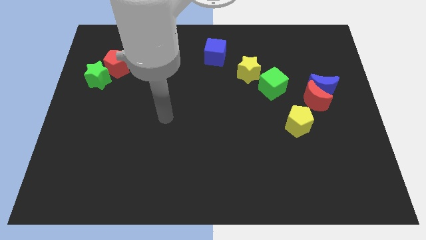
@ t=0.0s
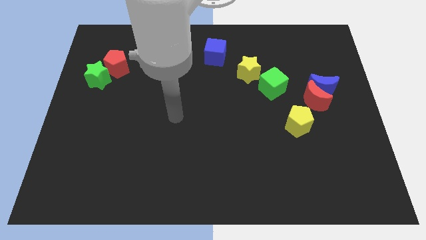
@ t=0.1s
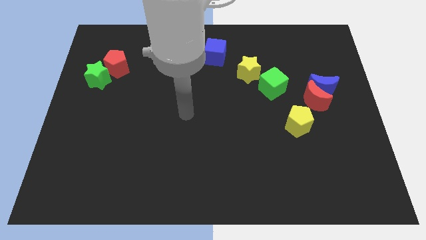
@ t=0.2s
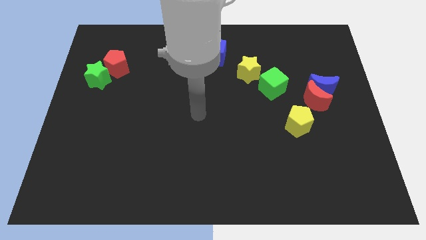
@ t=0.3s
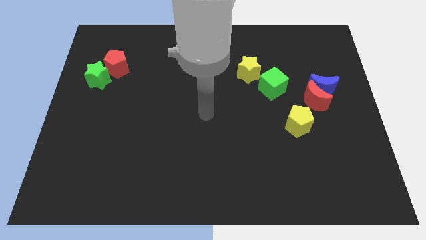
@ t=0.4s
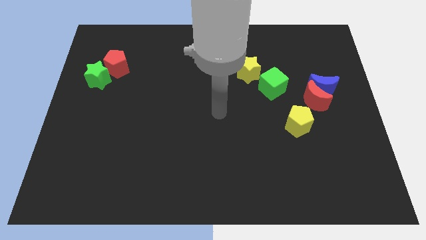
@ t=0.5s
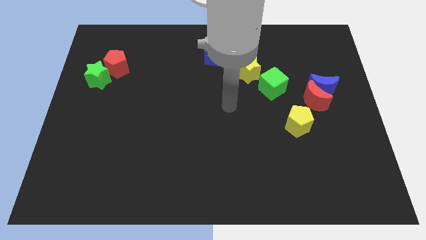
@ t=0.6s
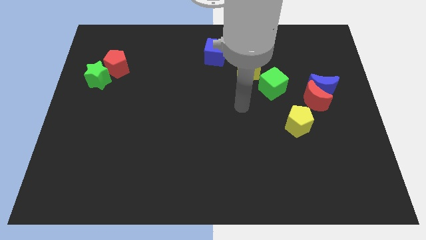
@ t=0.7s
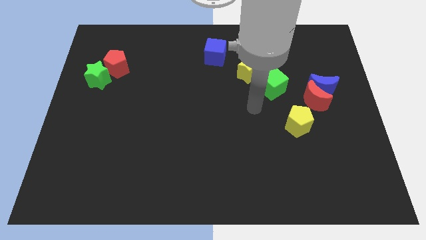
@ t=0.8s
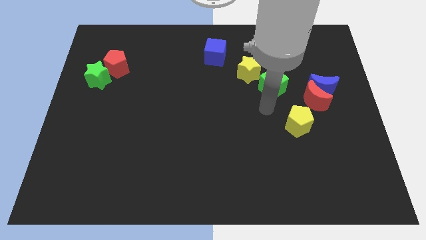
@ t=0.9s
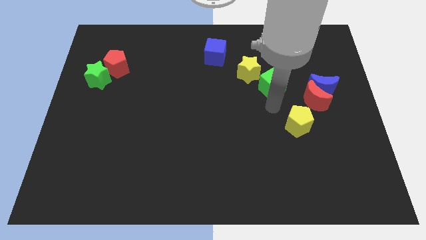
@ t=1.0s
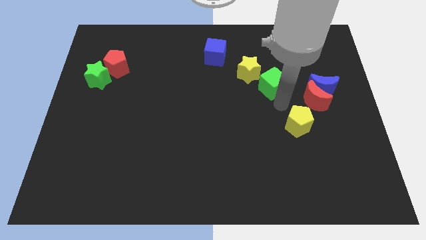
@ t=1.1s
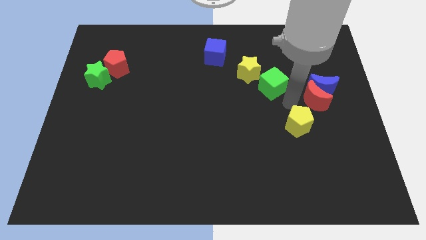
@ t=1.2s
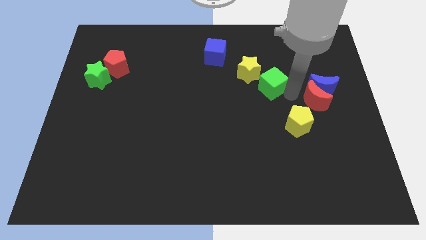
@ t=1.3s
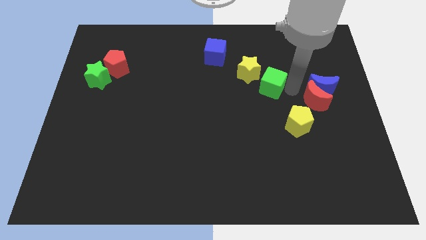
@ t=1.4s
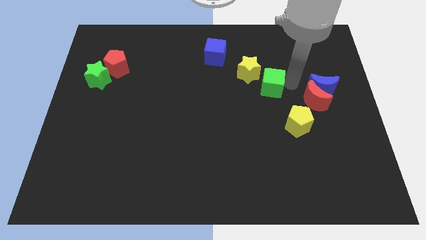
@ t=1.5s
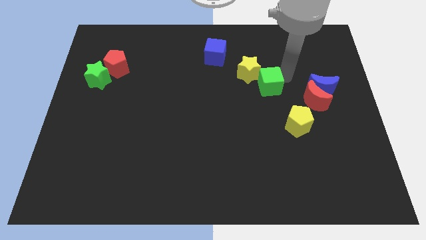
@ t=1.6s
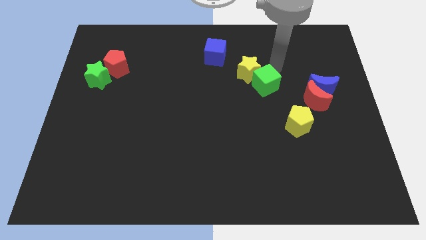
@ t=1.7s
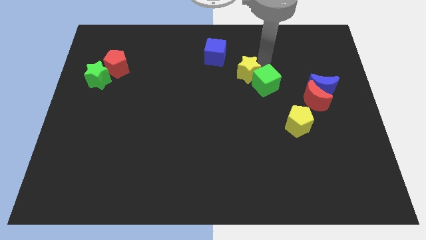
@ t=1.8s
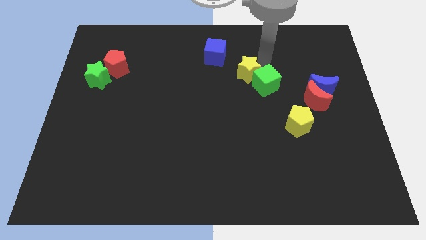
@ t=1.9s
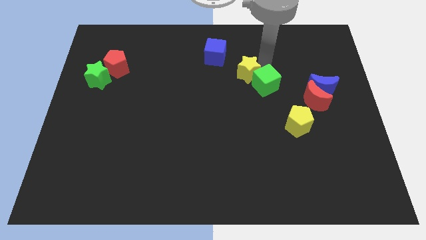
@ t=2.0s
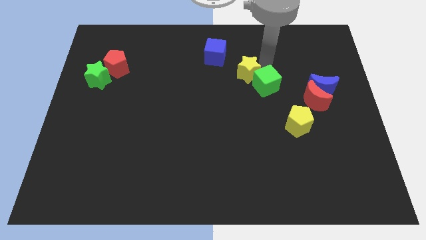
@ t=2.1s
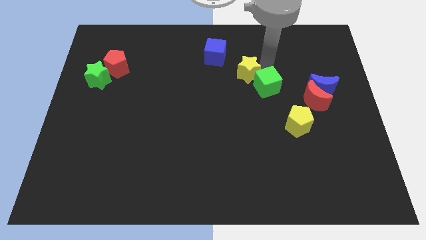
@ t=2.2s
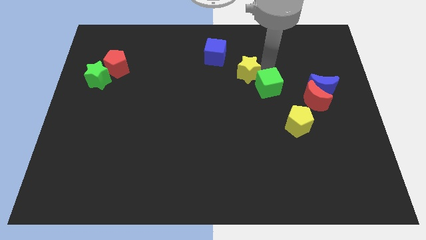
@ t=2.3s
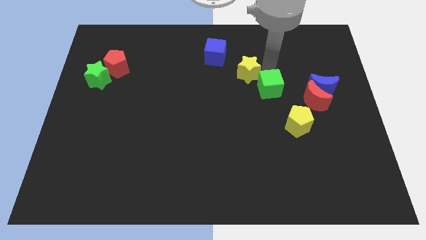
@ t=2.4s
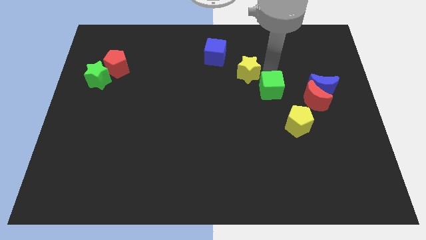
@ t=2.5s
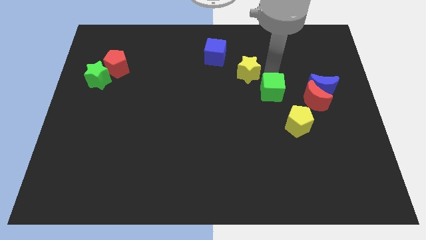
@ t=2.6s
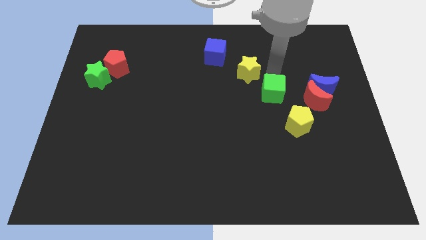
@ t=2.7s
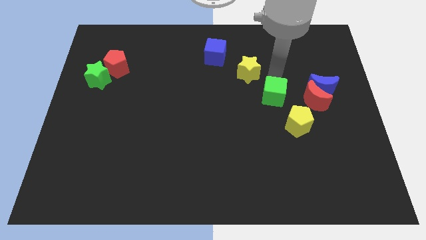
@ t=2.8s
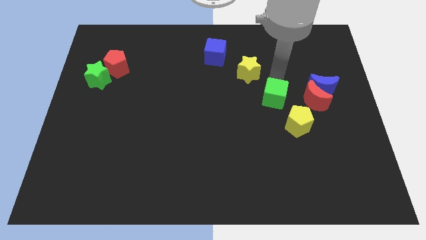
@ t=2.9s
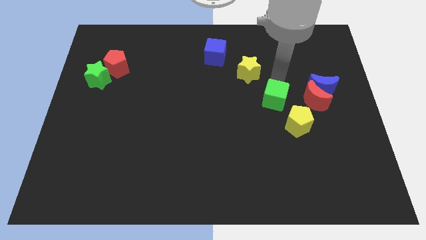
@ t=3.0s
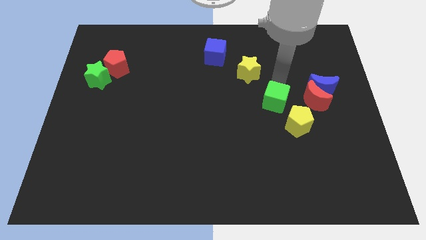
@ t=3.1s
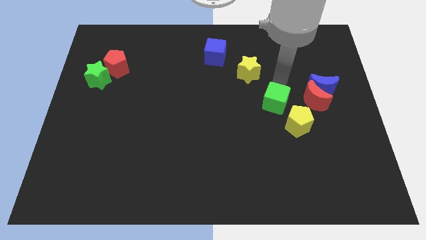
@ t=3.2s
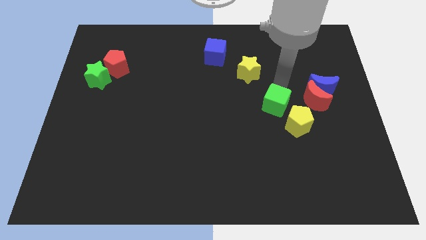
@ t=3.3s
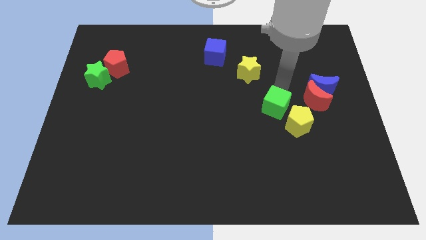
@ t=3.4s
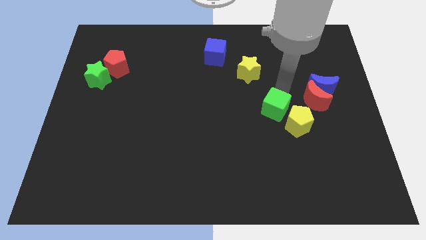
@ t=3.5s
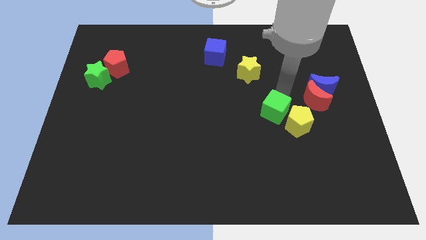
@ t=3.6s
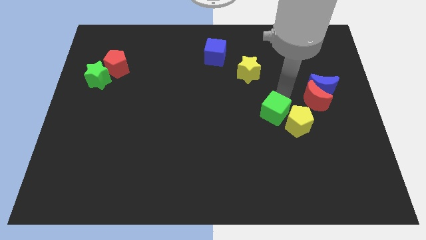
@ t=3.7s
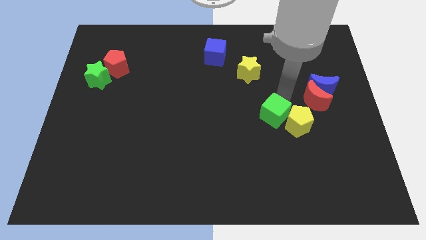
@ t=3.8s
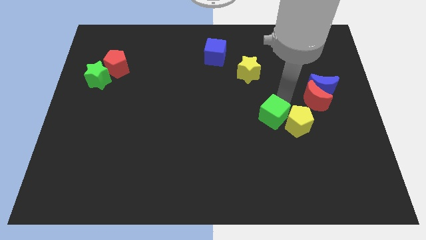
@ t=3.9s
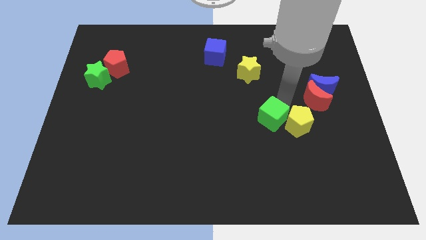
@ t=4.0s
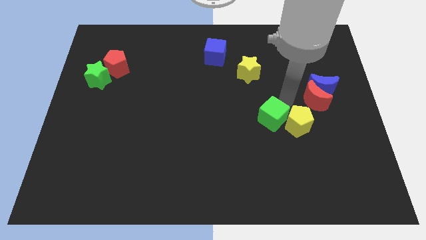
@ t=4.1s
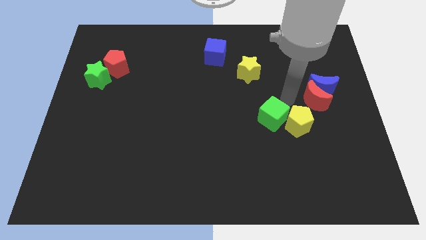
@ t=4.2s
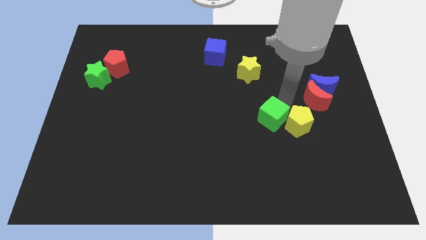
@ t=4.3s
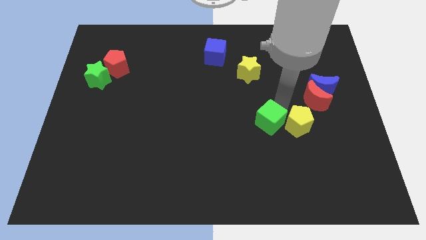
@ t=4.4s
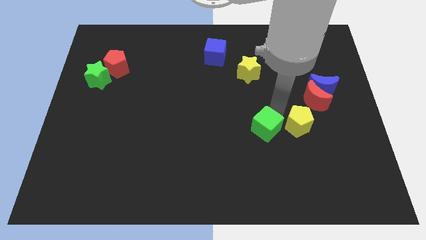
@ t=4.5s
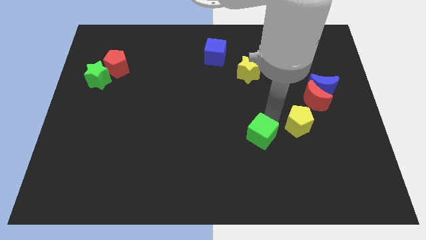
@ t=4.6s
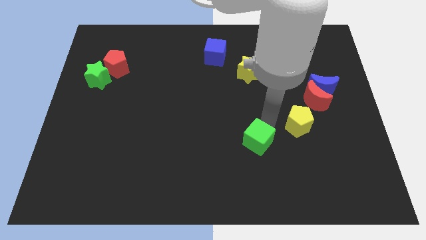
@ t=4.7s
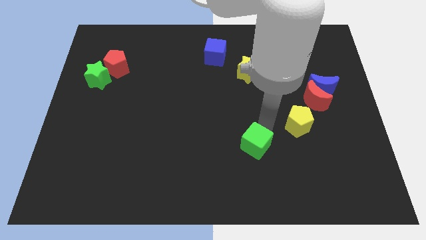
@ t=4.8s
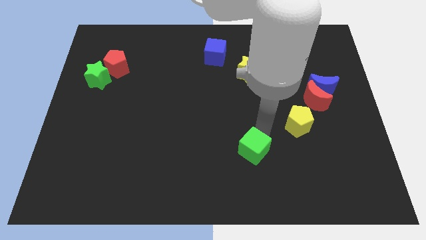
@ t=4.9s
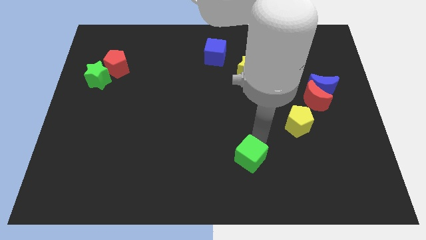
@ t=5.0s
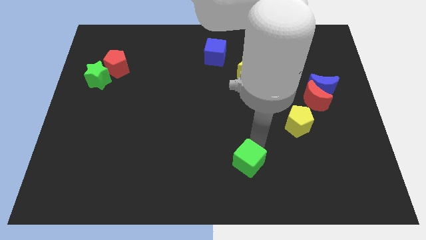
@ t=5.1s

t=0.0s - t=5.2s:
slide the green cube to the bottom side

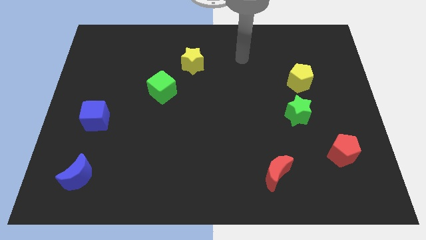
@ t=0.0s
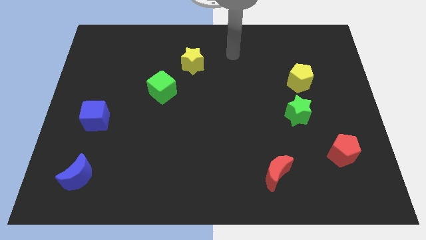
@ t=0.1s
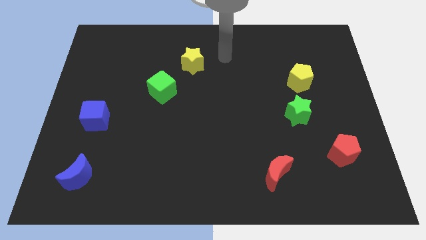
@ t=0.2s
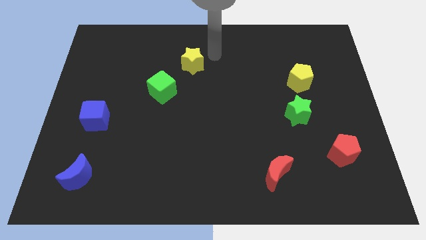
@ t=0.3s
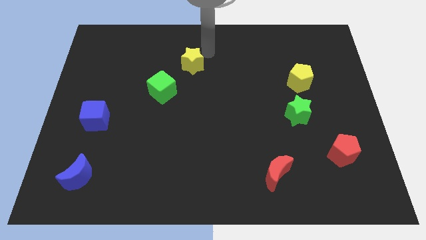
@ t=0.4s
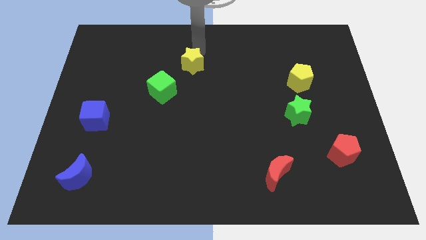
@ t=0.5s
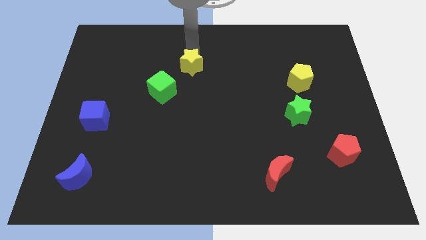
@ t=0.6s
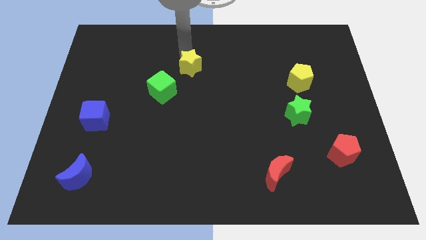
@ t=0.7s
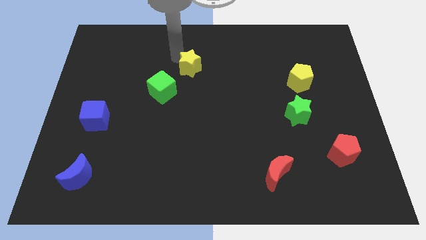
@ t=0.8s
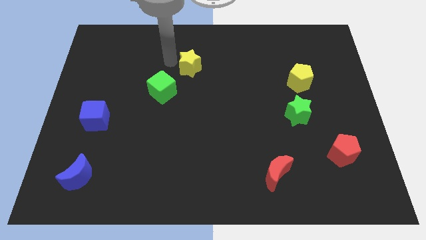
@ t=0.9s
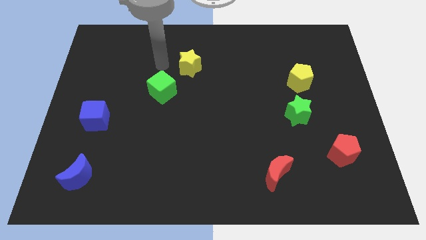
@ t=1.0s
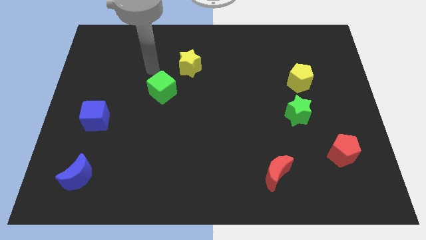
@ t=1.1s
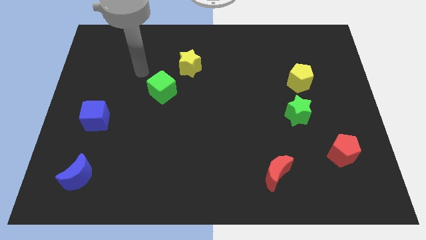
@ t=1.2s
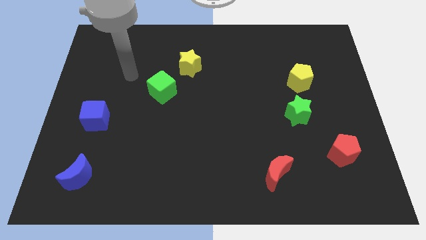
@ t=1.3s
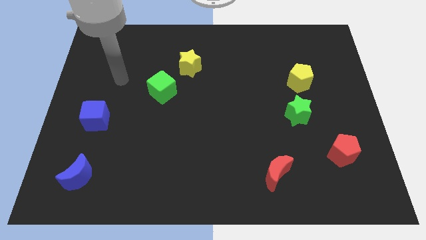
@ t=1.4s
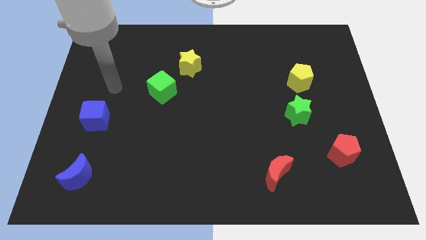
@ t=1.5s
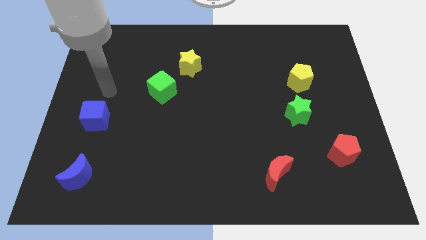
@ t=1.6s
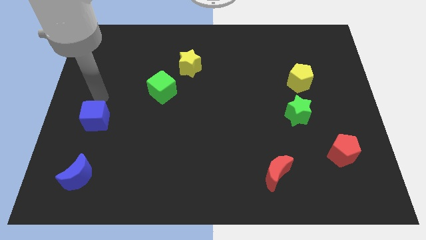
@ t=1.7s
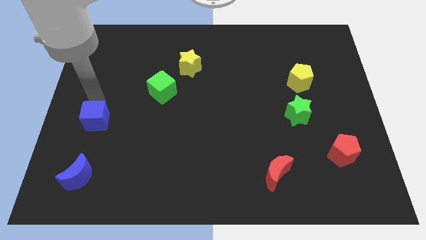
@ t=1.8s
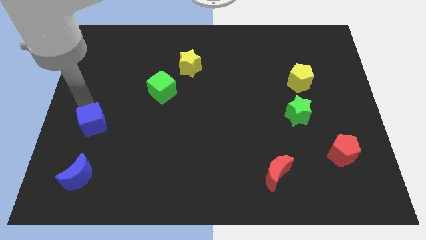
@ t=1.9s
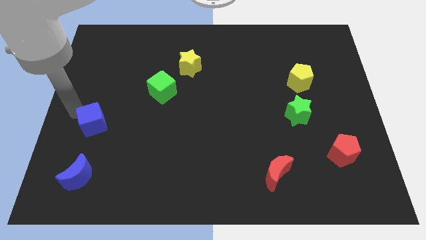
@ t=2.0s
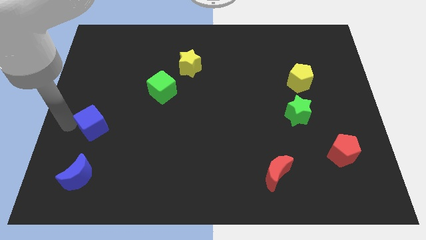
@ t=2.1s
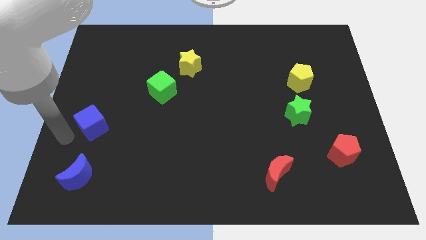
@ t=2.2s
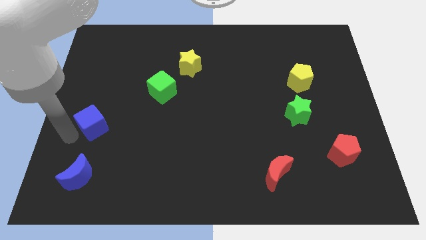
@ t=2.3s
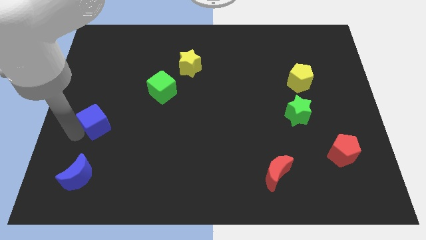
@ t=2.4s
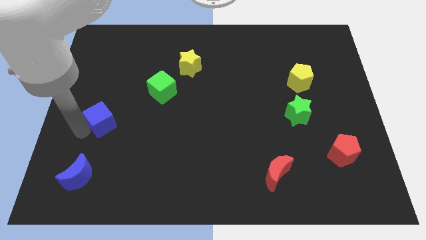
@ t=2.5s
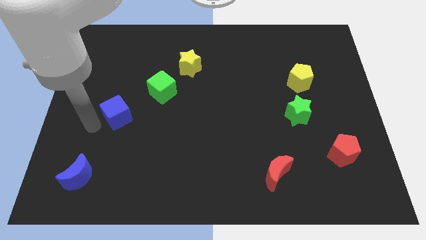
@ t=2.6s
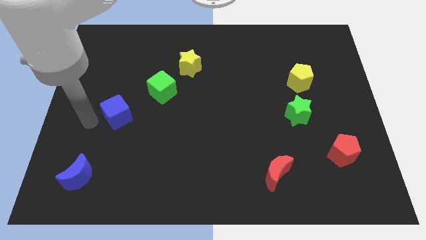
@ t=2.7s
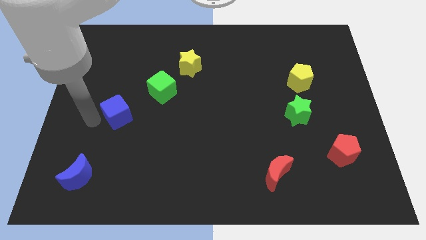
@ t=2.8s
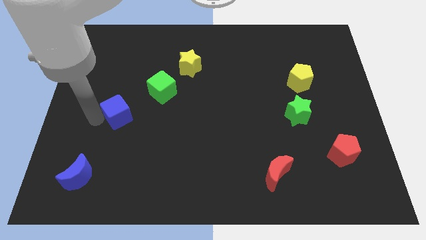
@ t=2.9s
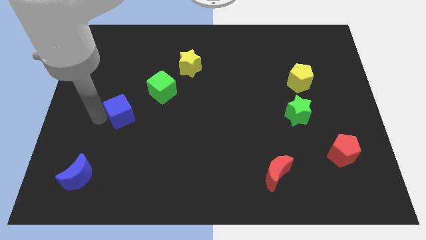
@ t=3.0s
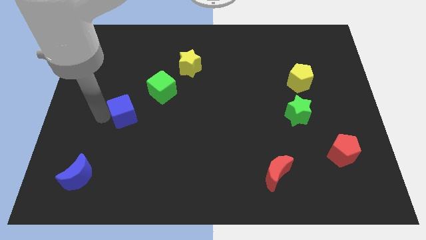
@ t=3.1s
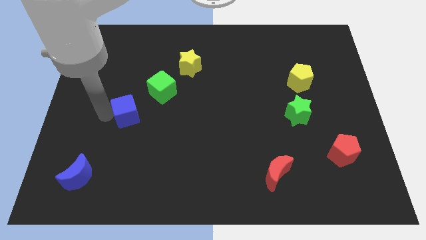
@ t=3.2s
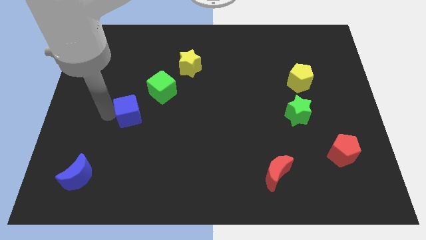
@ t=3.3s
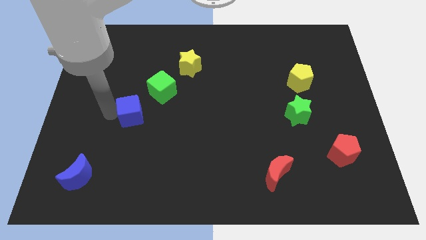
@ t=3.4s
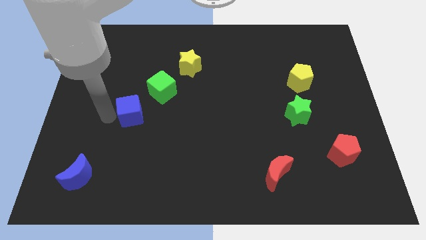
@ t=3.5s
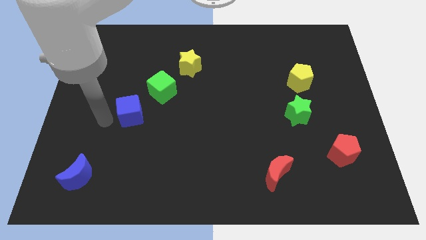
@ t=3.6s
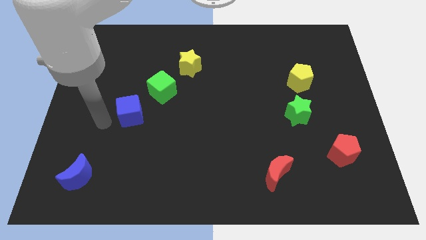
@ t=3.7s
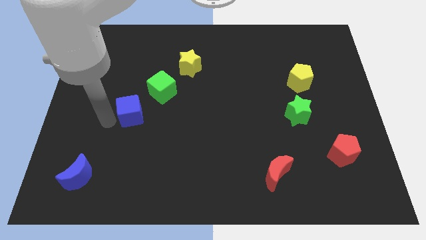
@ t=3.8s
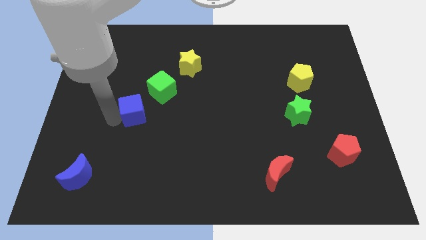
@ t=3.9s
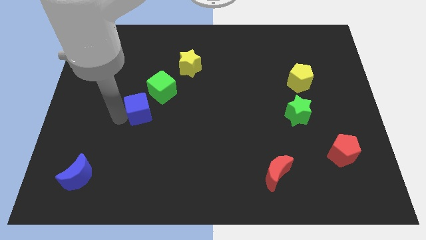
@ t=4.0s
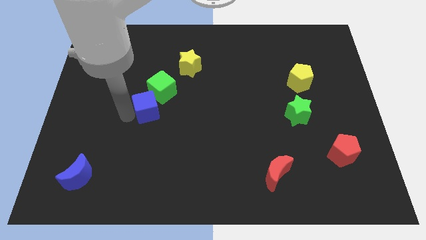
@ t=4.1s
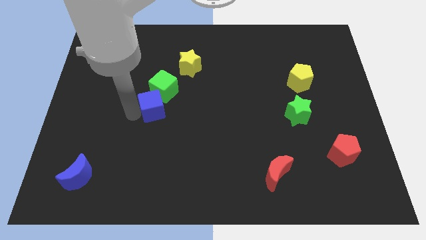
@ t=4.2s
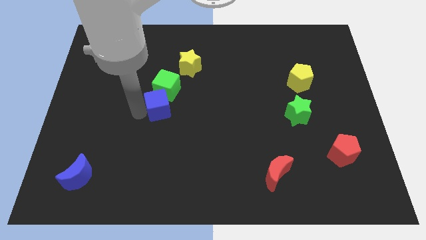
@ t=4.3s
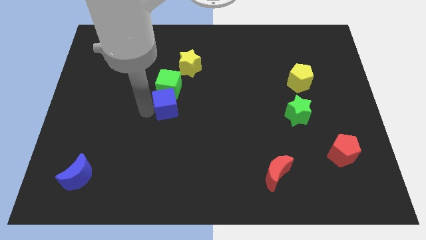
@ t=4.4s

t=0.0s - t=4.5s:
slide the blue cube to the middle
